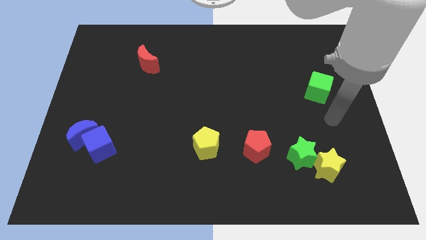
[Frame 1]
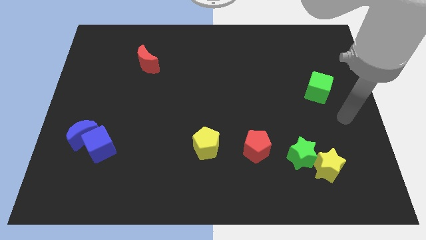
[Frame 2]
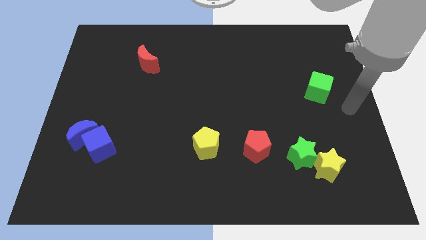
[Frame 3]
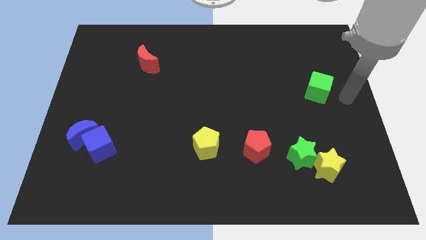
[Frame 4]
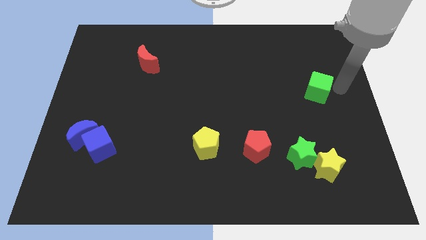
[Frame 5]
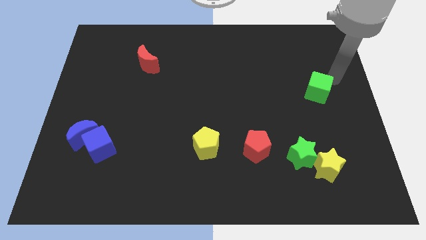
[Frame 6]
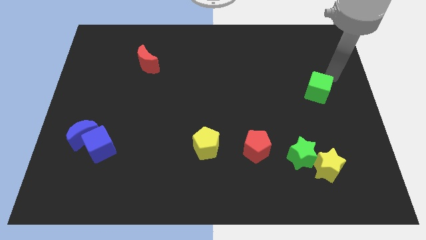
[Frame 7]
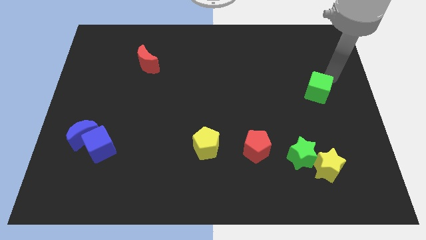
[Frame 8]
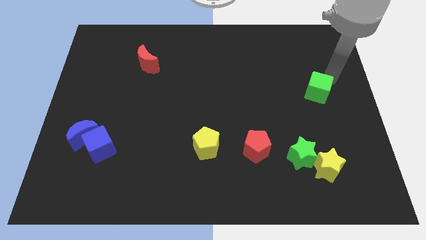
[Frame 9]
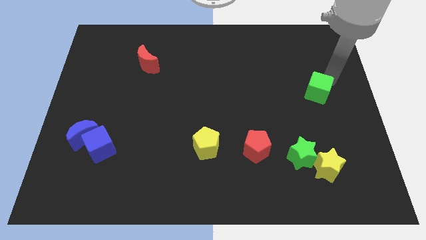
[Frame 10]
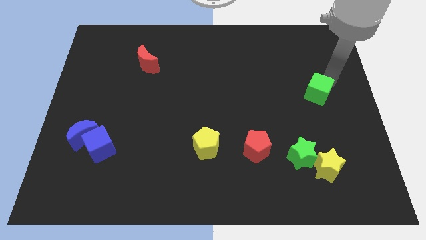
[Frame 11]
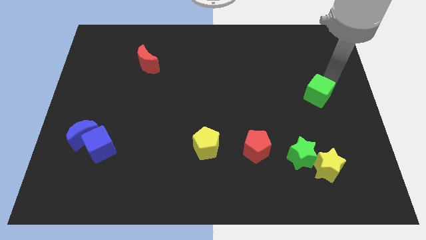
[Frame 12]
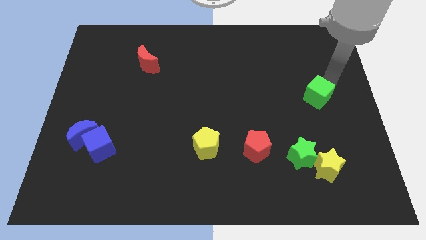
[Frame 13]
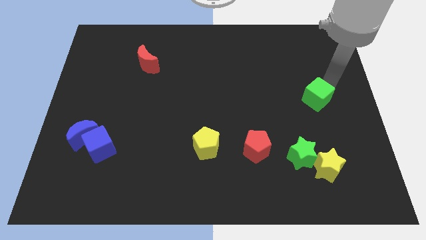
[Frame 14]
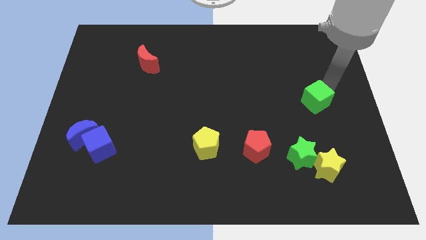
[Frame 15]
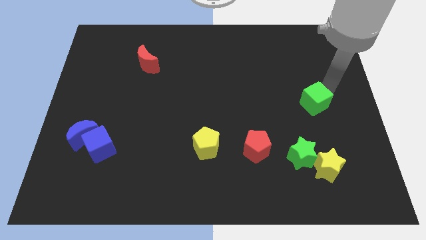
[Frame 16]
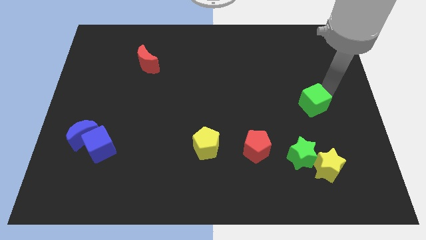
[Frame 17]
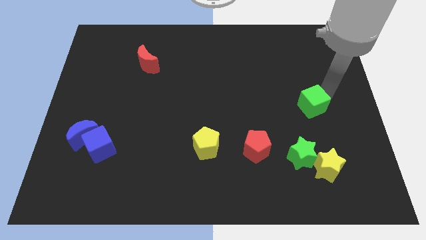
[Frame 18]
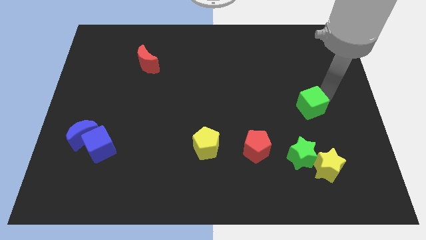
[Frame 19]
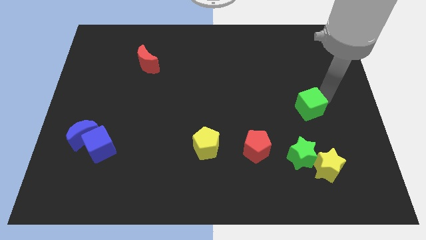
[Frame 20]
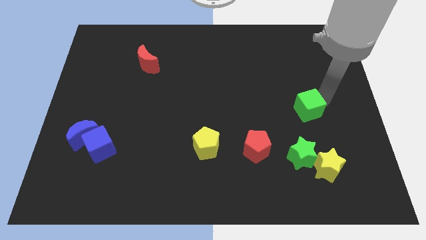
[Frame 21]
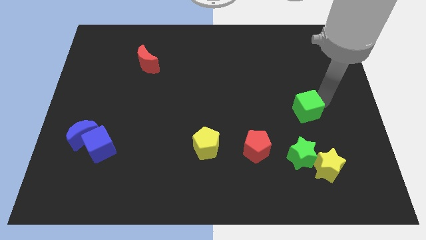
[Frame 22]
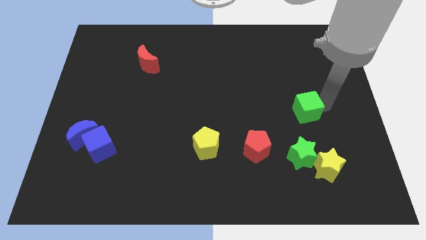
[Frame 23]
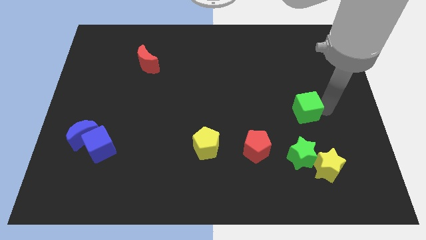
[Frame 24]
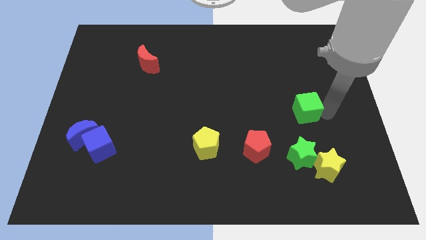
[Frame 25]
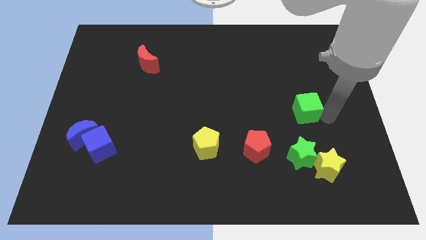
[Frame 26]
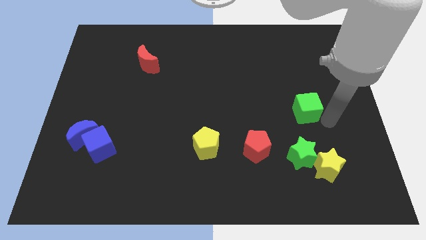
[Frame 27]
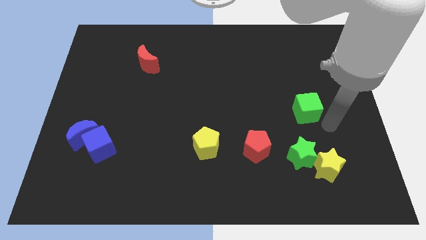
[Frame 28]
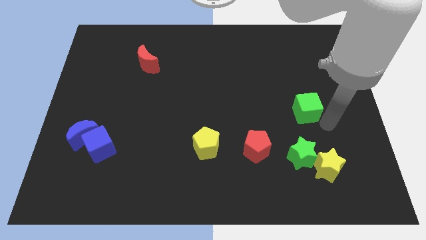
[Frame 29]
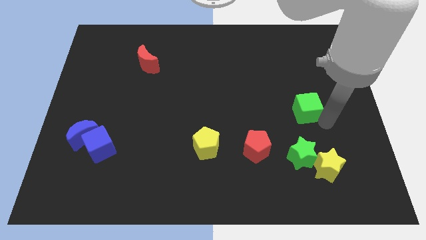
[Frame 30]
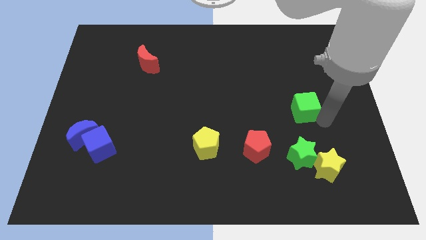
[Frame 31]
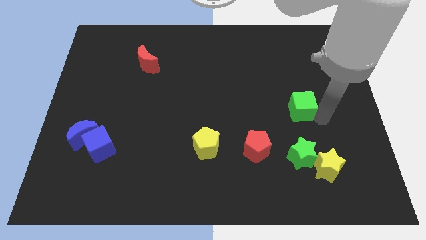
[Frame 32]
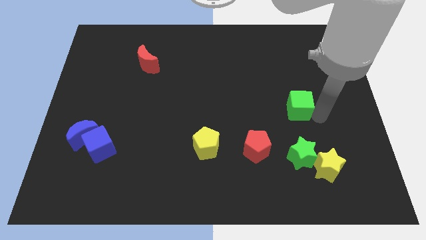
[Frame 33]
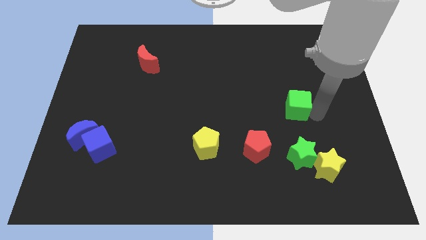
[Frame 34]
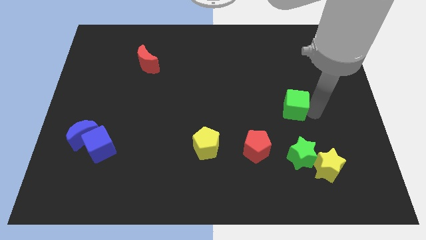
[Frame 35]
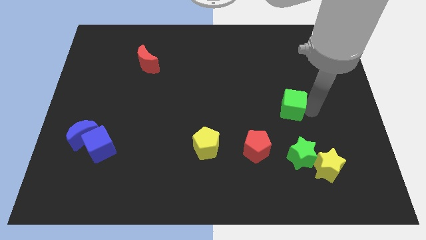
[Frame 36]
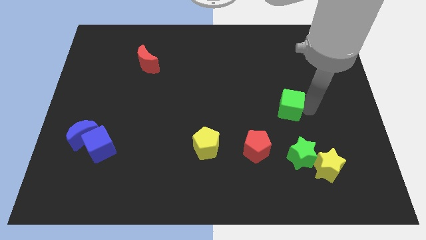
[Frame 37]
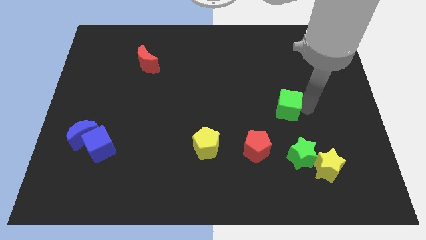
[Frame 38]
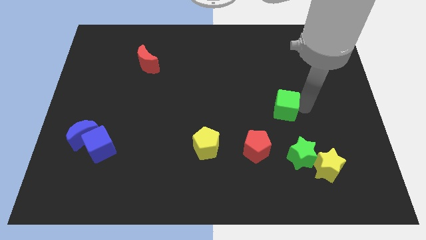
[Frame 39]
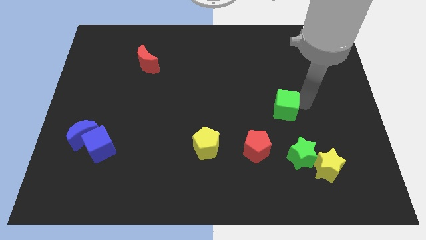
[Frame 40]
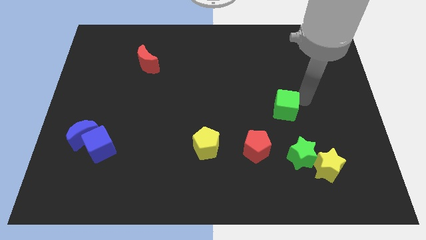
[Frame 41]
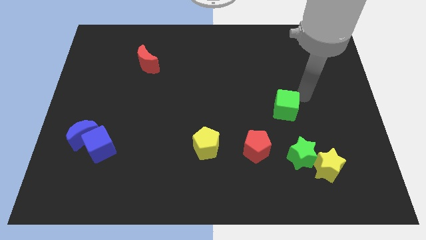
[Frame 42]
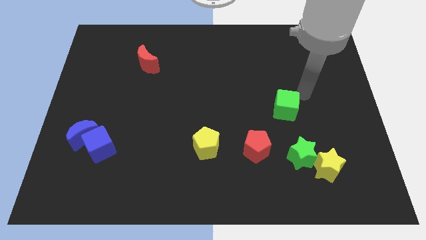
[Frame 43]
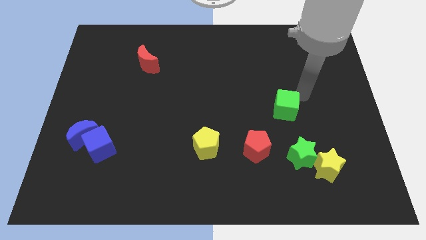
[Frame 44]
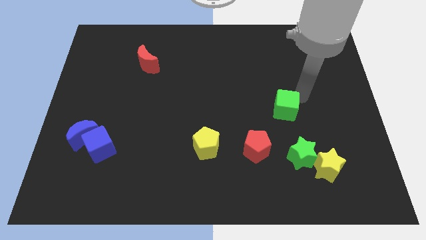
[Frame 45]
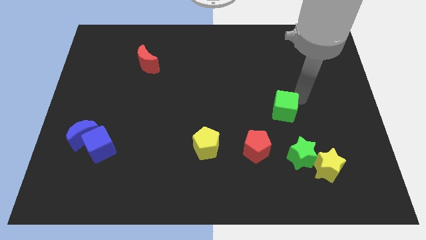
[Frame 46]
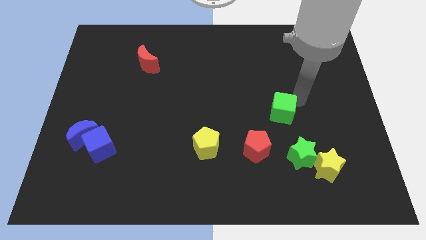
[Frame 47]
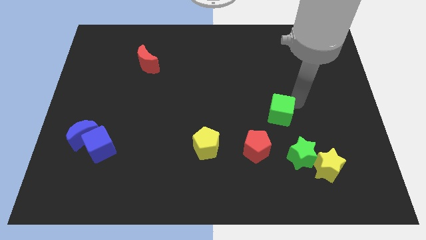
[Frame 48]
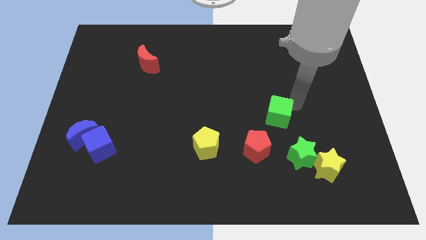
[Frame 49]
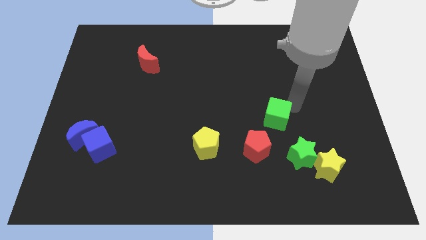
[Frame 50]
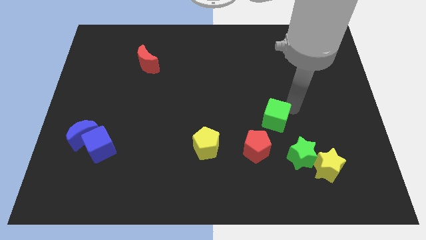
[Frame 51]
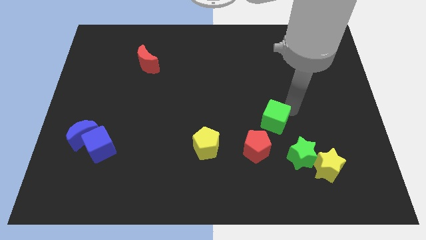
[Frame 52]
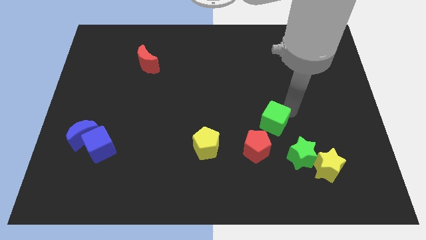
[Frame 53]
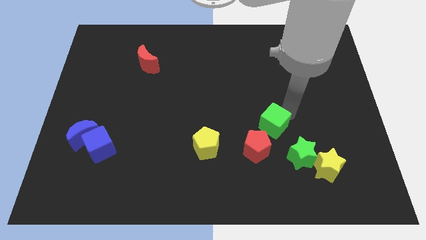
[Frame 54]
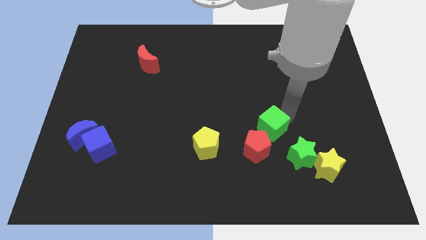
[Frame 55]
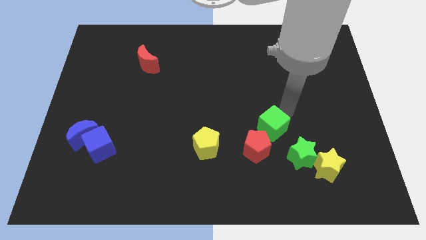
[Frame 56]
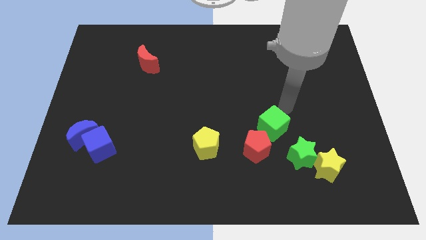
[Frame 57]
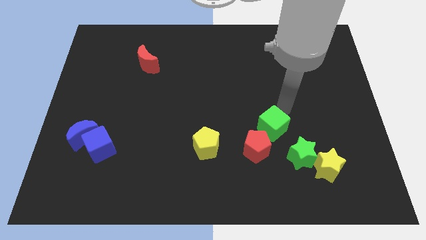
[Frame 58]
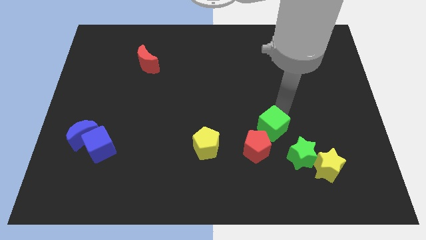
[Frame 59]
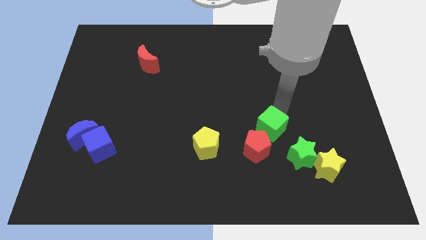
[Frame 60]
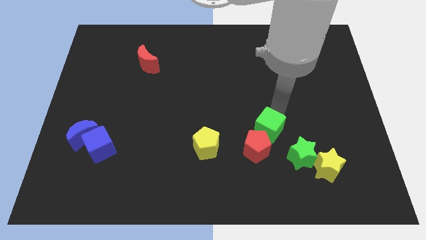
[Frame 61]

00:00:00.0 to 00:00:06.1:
push the green cube close to the red pentagon

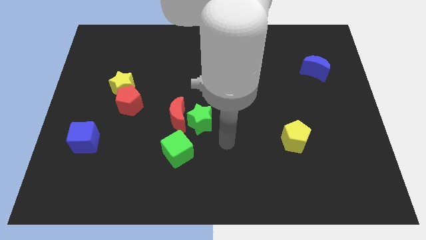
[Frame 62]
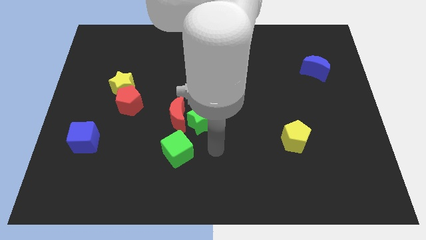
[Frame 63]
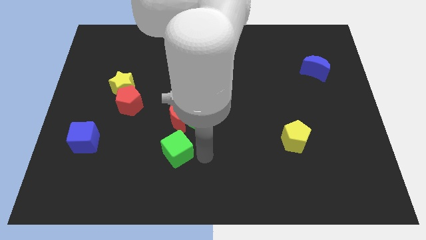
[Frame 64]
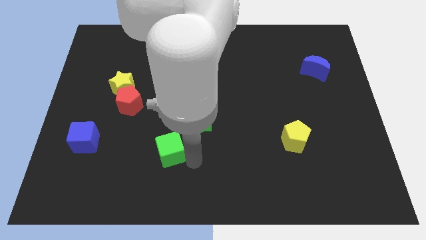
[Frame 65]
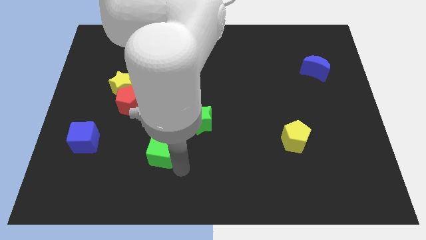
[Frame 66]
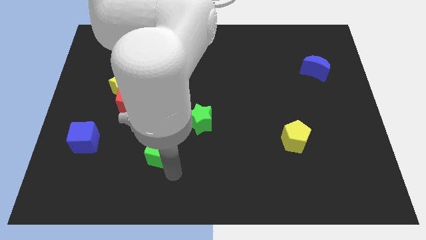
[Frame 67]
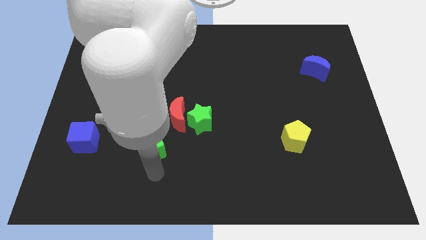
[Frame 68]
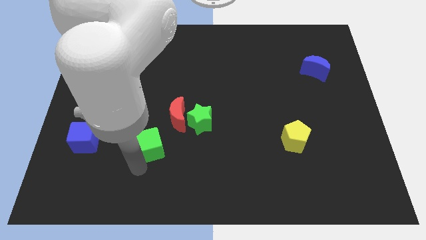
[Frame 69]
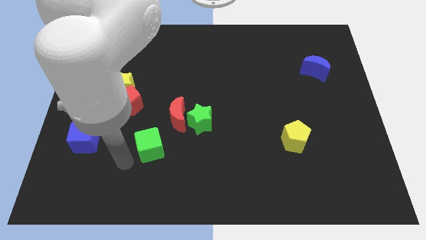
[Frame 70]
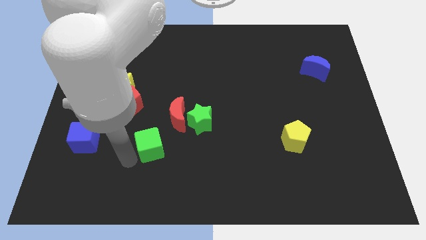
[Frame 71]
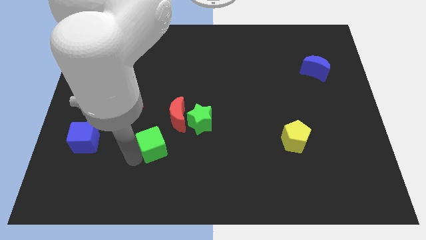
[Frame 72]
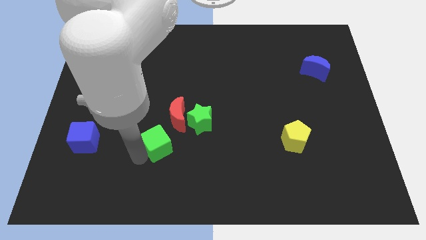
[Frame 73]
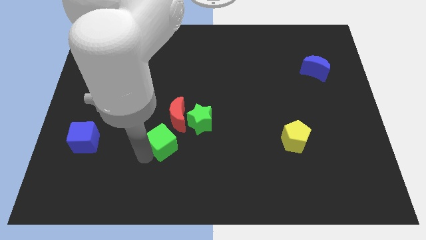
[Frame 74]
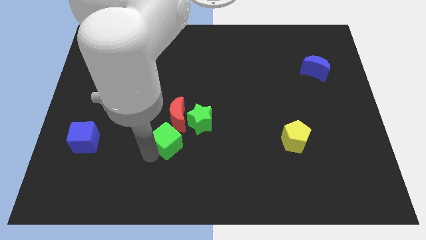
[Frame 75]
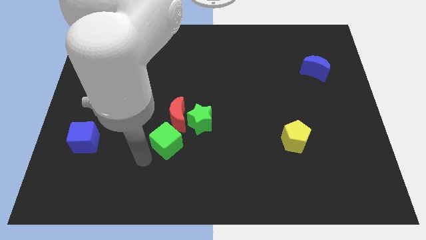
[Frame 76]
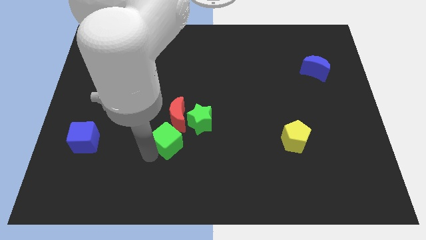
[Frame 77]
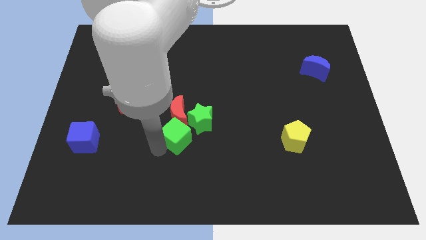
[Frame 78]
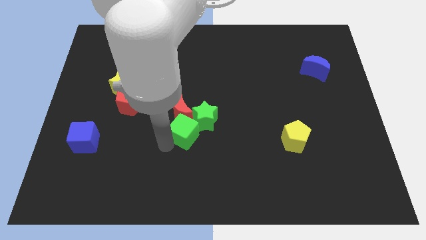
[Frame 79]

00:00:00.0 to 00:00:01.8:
put the green cube to the green star
